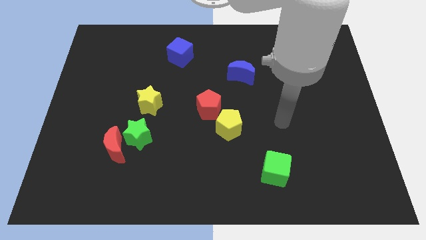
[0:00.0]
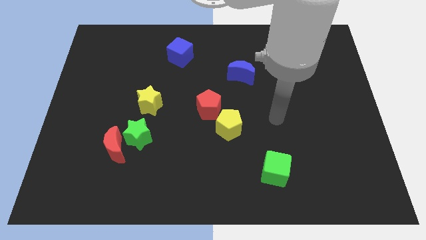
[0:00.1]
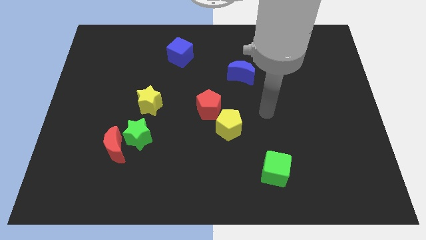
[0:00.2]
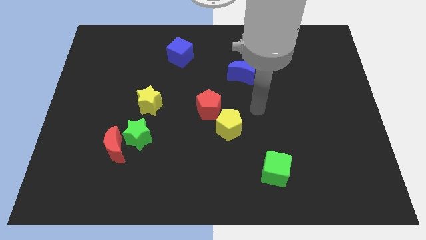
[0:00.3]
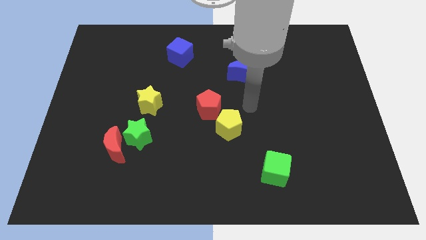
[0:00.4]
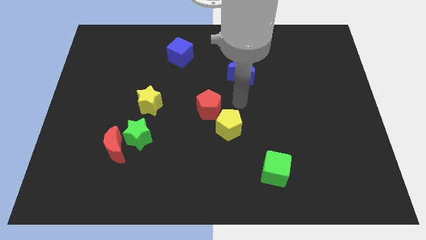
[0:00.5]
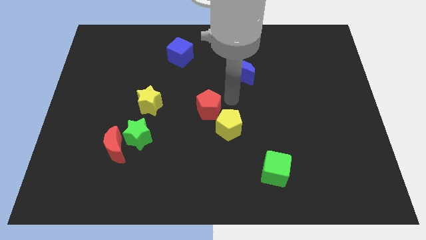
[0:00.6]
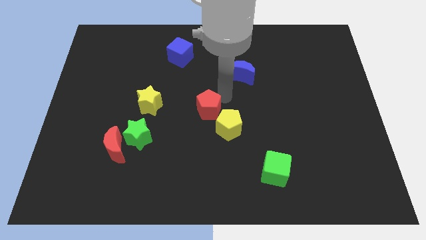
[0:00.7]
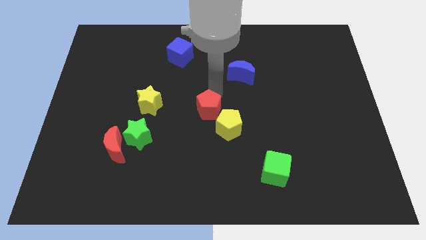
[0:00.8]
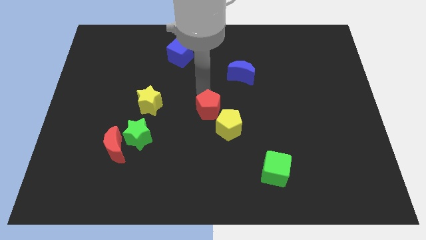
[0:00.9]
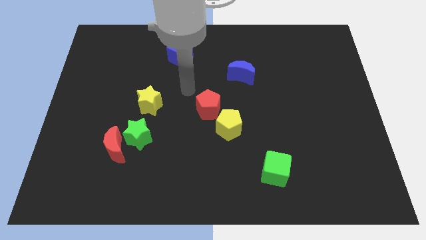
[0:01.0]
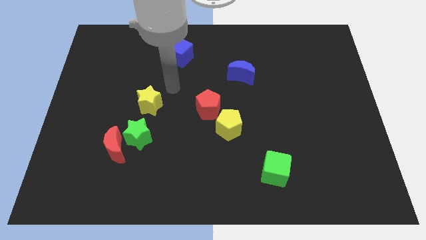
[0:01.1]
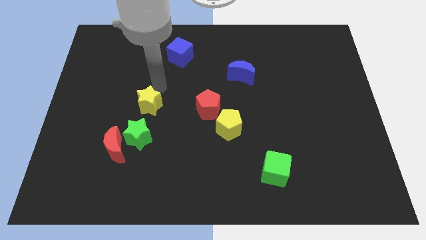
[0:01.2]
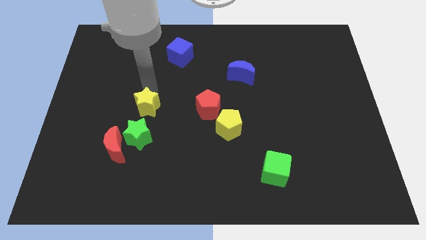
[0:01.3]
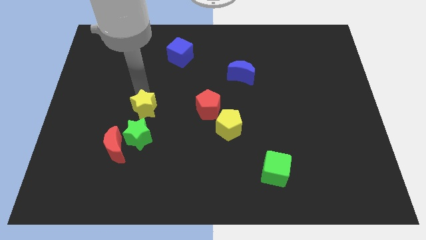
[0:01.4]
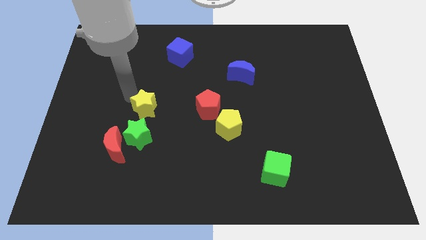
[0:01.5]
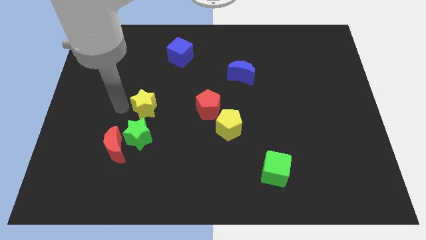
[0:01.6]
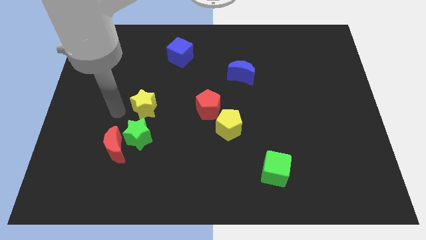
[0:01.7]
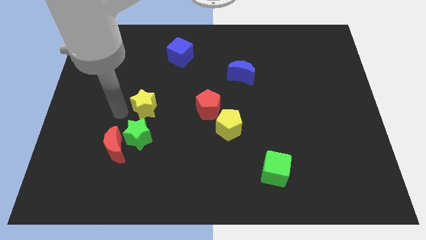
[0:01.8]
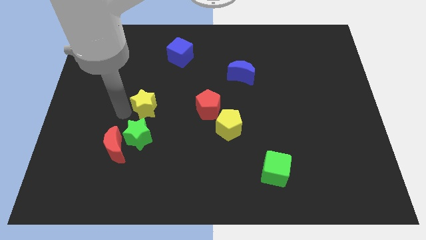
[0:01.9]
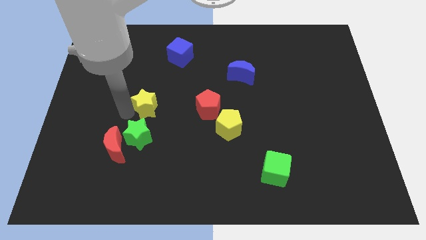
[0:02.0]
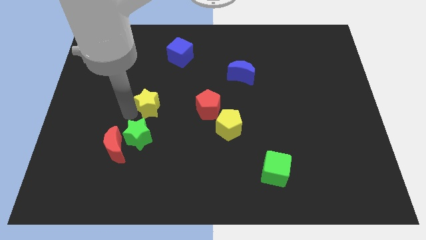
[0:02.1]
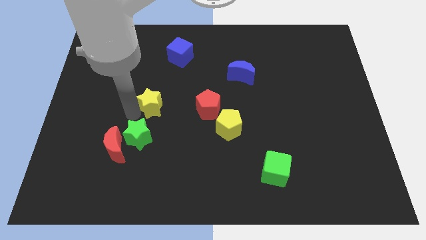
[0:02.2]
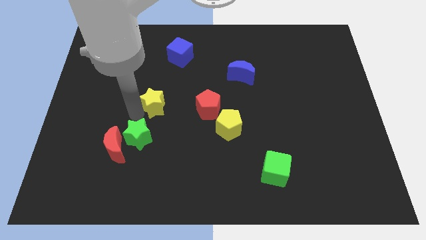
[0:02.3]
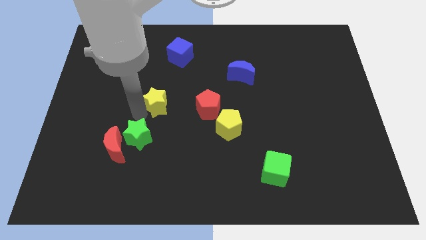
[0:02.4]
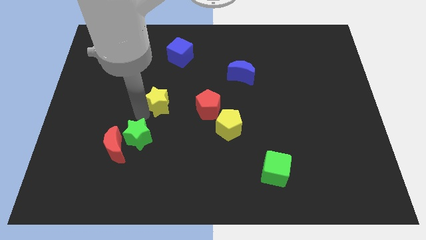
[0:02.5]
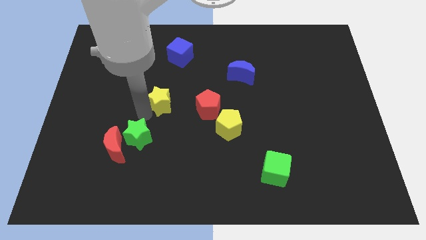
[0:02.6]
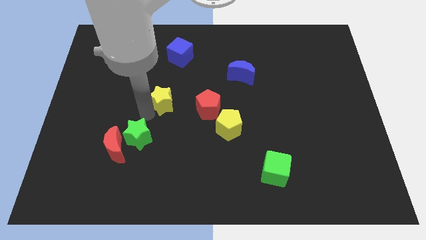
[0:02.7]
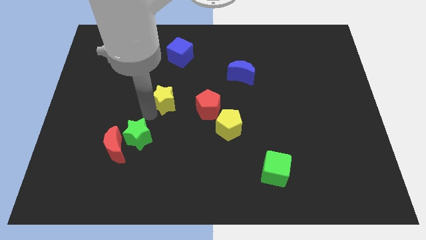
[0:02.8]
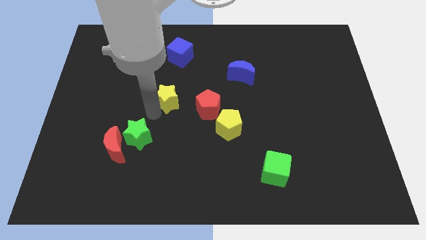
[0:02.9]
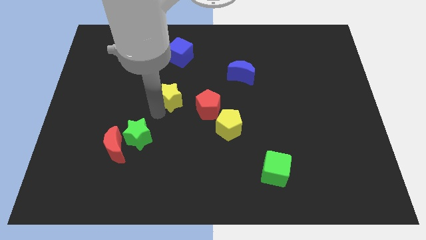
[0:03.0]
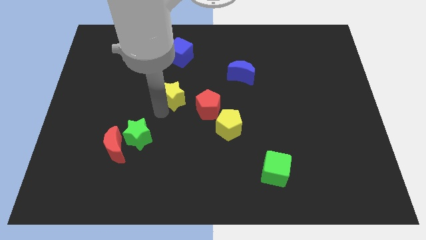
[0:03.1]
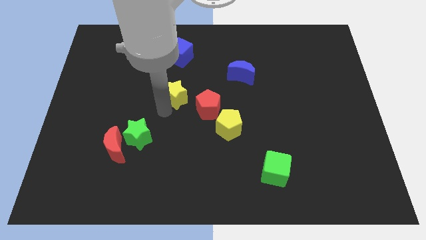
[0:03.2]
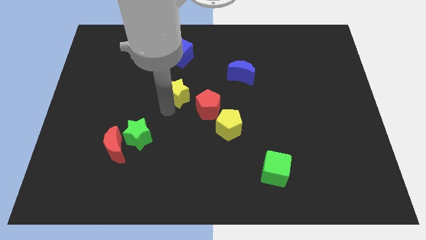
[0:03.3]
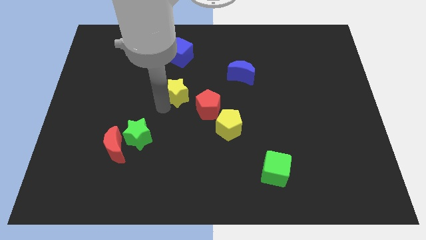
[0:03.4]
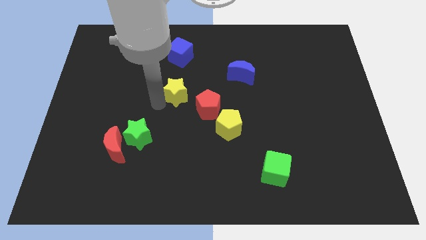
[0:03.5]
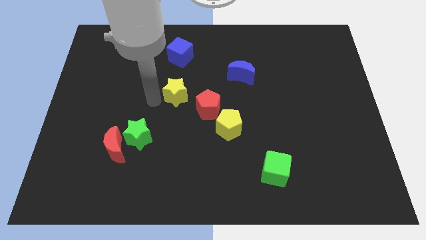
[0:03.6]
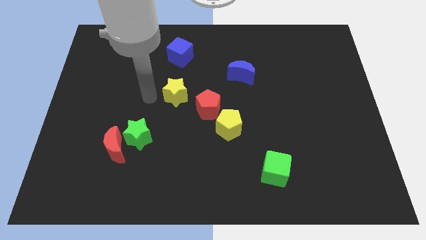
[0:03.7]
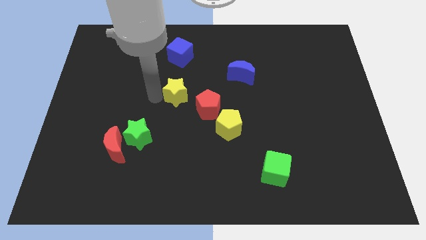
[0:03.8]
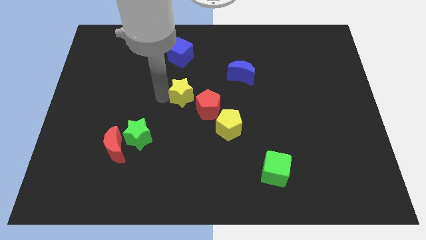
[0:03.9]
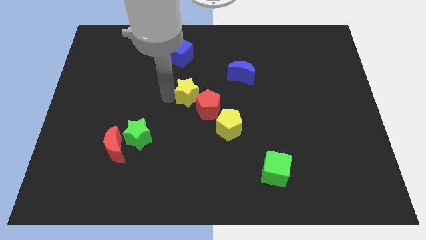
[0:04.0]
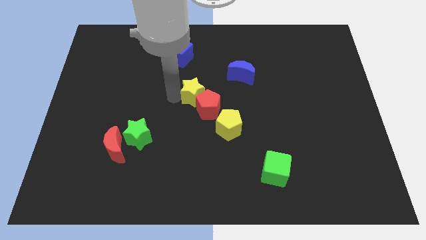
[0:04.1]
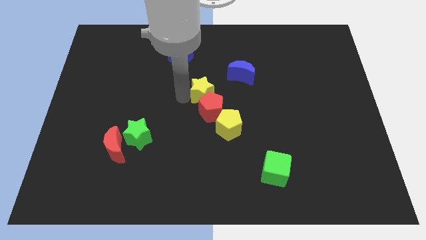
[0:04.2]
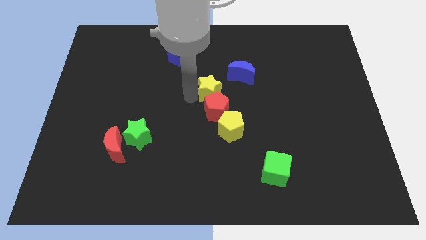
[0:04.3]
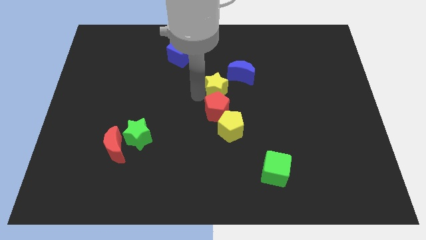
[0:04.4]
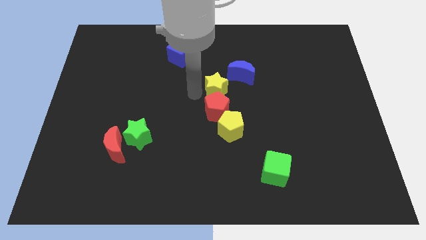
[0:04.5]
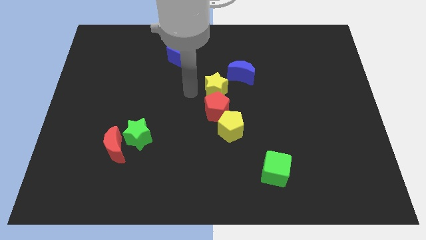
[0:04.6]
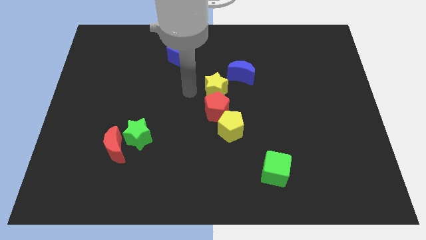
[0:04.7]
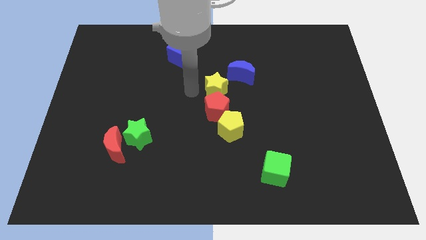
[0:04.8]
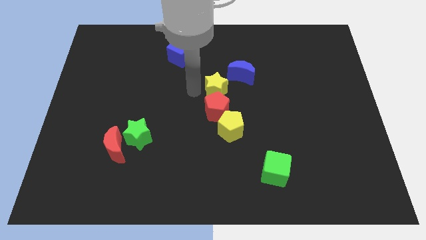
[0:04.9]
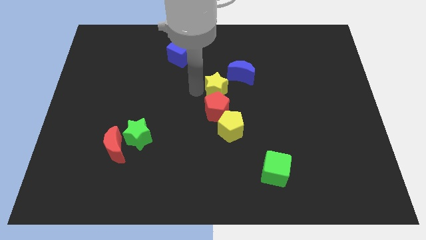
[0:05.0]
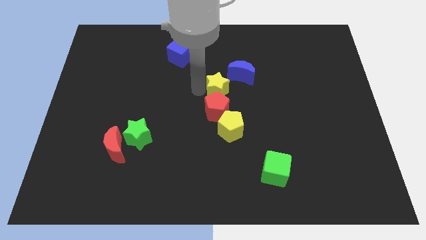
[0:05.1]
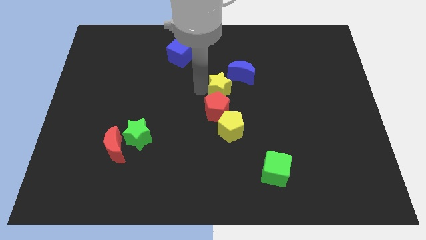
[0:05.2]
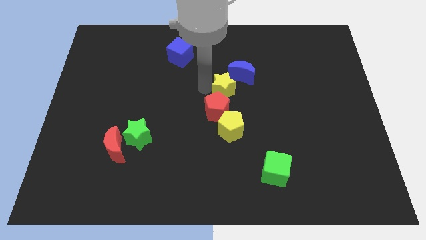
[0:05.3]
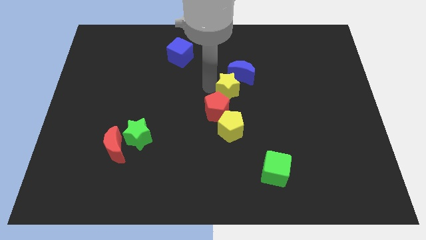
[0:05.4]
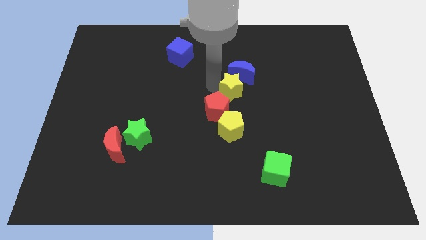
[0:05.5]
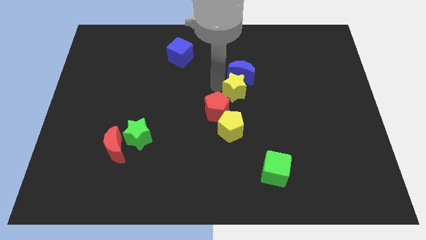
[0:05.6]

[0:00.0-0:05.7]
slide the yellow star to the right

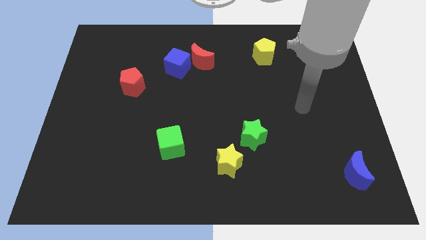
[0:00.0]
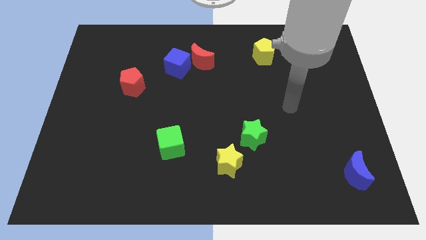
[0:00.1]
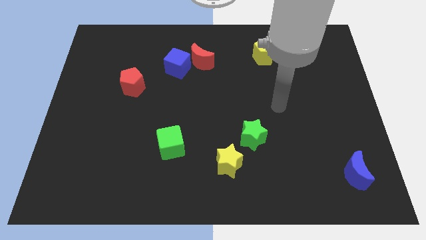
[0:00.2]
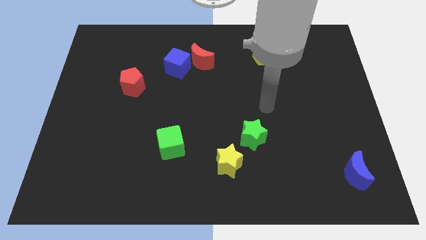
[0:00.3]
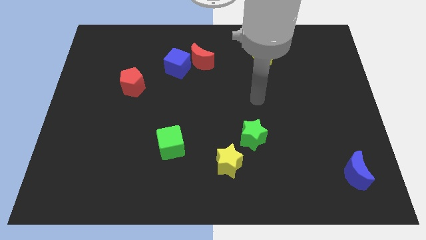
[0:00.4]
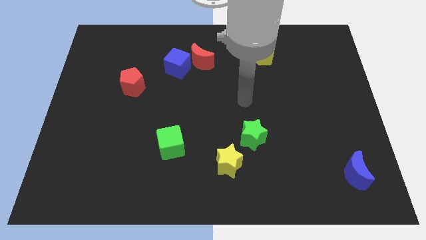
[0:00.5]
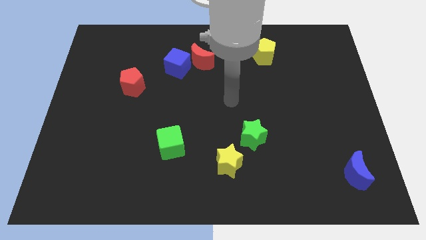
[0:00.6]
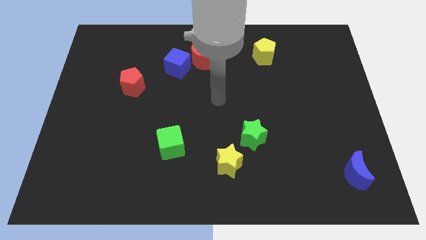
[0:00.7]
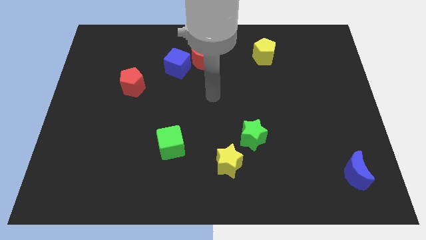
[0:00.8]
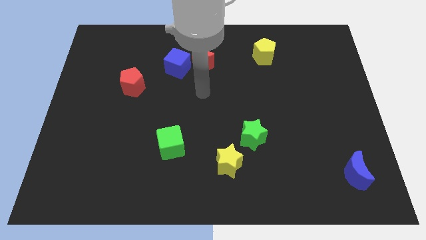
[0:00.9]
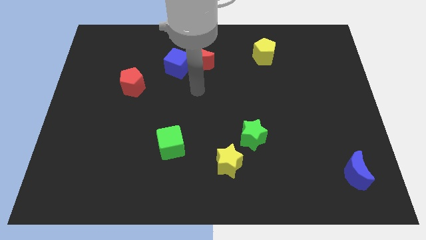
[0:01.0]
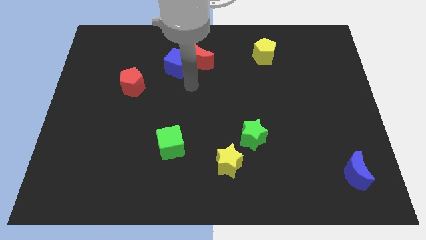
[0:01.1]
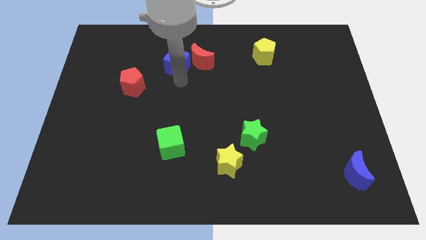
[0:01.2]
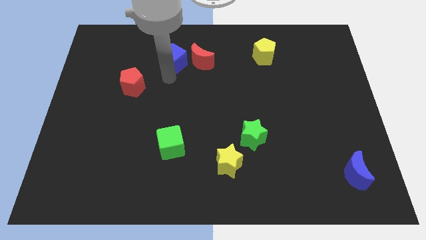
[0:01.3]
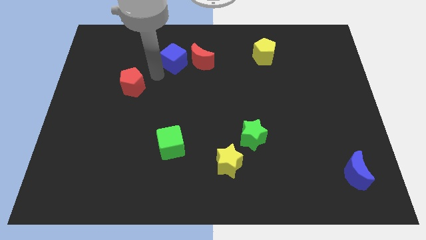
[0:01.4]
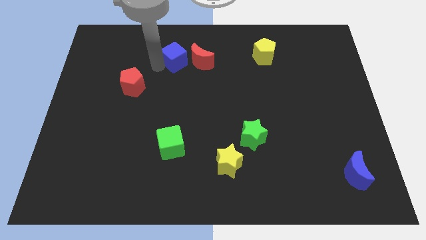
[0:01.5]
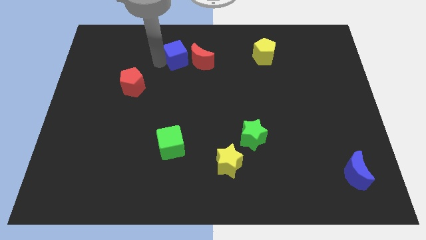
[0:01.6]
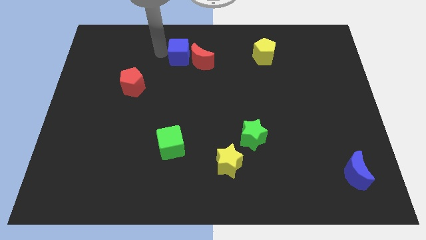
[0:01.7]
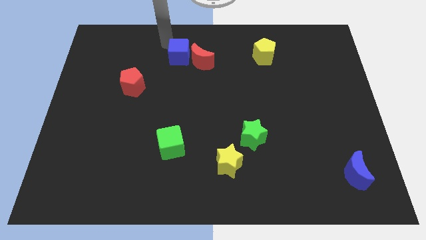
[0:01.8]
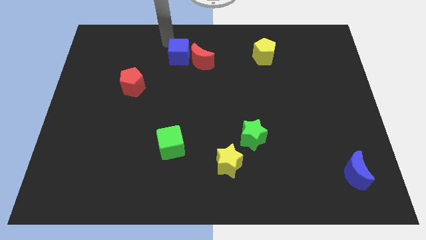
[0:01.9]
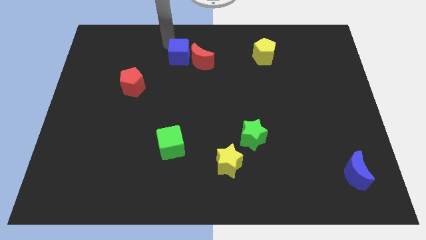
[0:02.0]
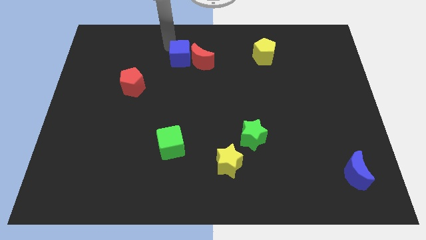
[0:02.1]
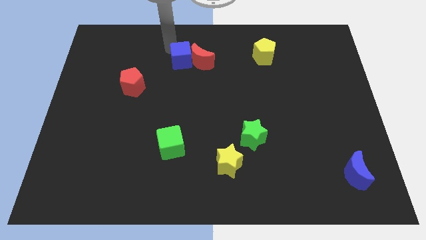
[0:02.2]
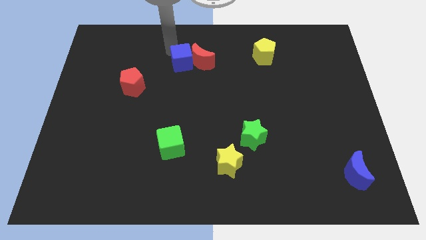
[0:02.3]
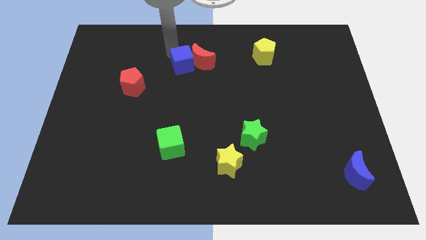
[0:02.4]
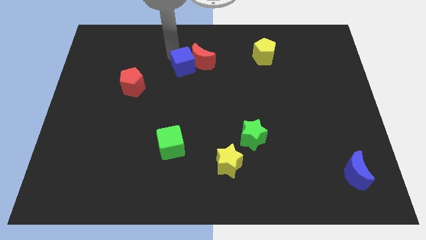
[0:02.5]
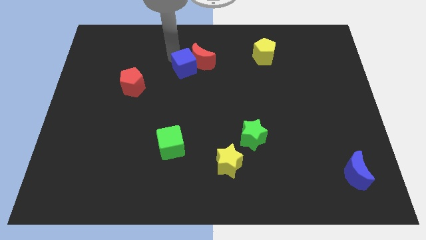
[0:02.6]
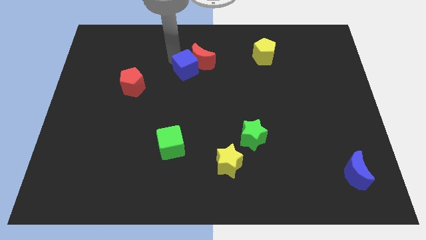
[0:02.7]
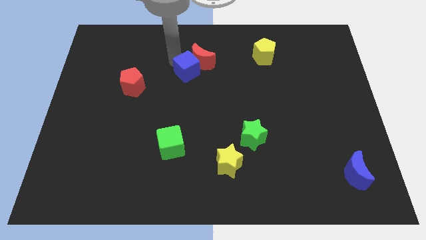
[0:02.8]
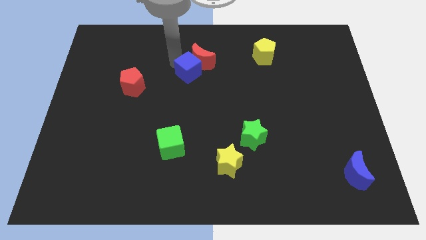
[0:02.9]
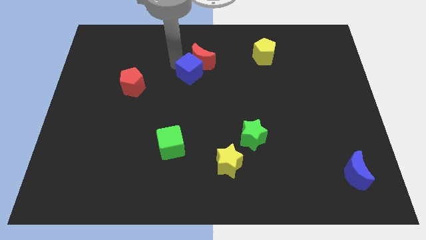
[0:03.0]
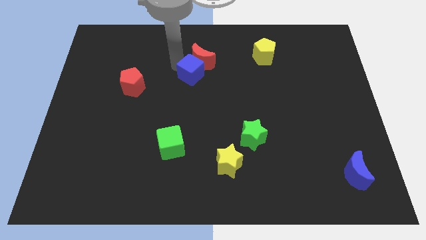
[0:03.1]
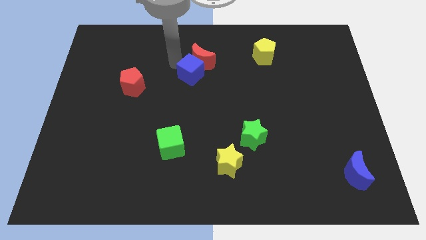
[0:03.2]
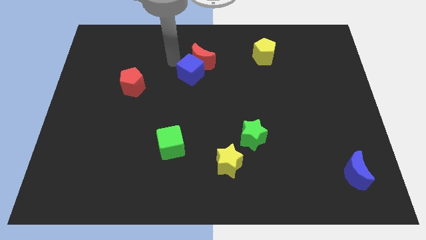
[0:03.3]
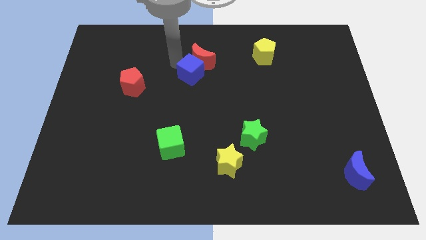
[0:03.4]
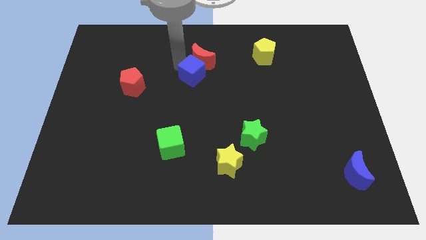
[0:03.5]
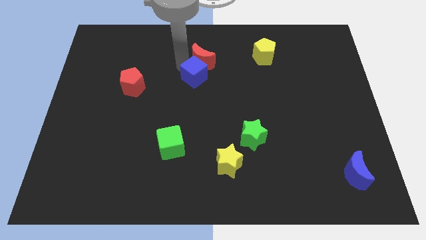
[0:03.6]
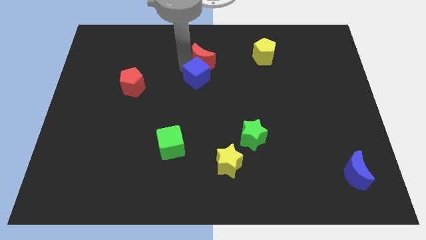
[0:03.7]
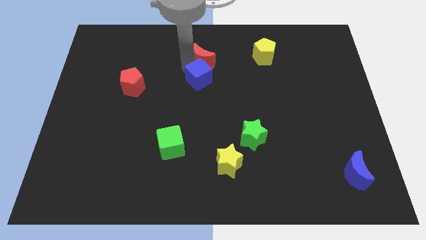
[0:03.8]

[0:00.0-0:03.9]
slightly move the blue cube downwards and to the right
